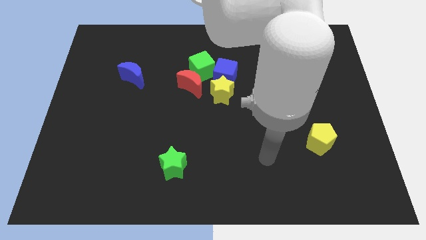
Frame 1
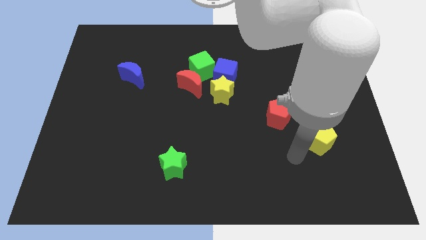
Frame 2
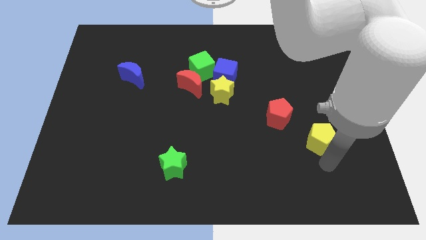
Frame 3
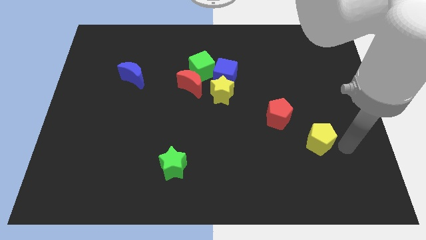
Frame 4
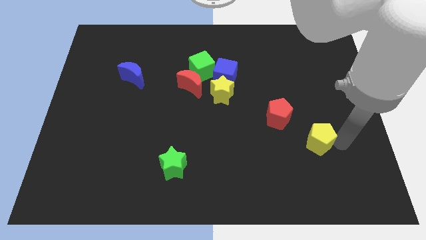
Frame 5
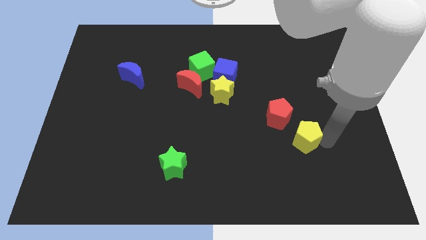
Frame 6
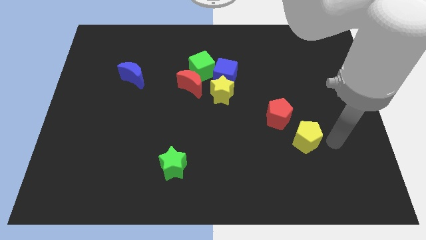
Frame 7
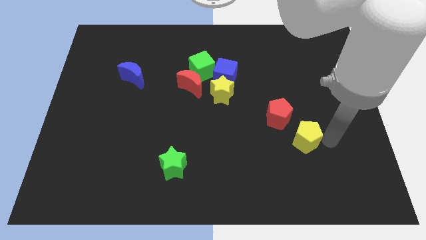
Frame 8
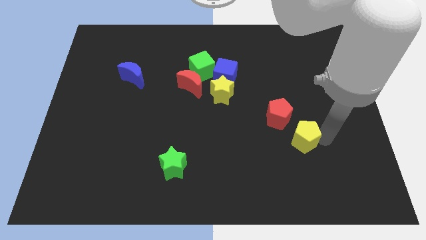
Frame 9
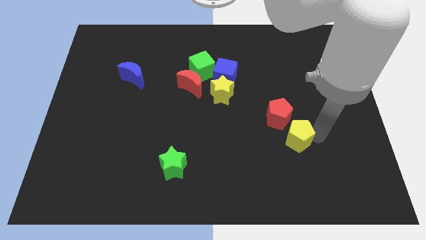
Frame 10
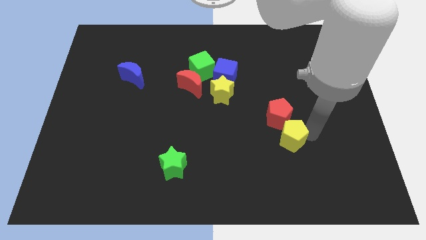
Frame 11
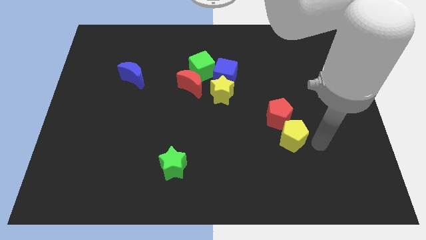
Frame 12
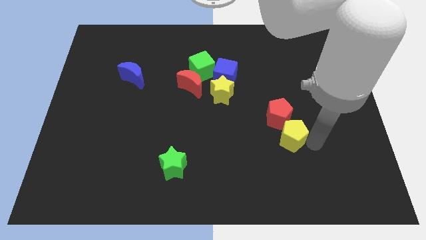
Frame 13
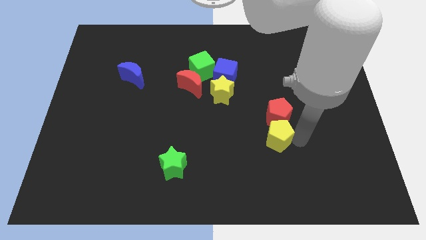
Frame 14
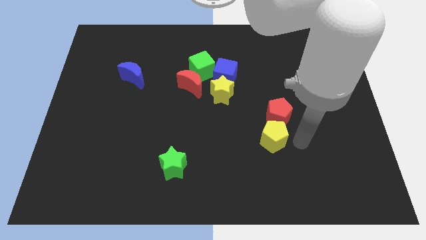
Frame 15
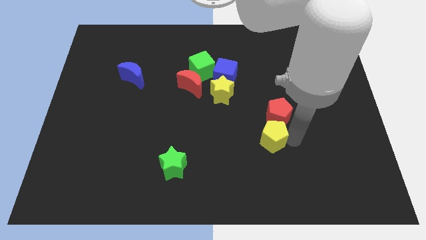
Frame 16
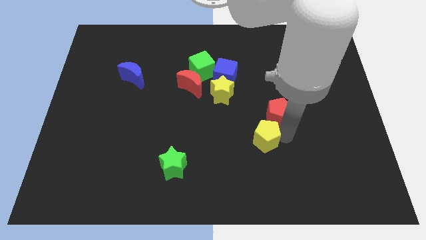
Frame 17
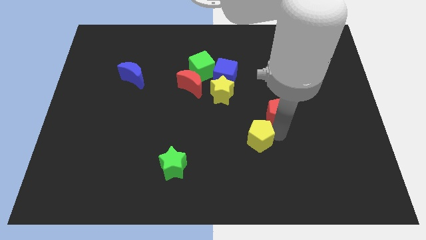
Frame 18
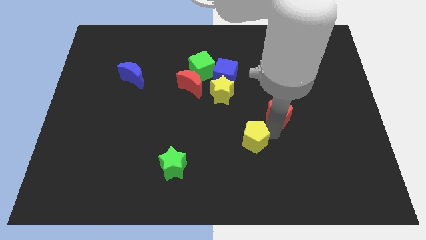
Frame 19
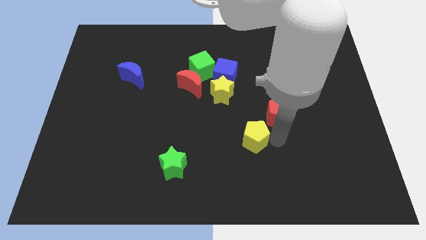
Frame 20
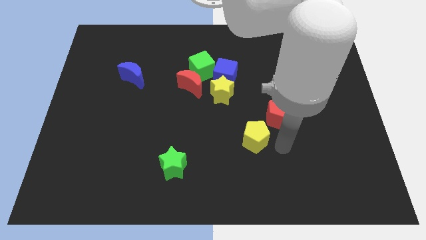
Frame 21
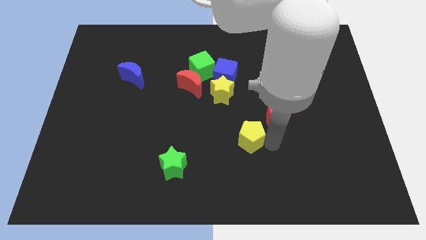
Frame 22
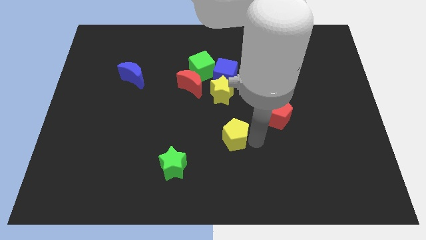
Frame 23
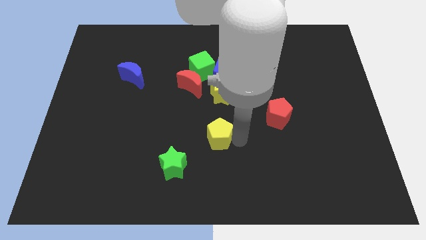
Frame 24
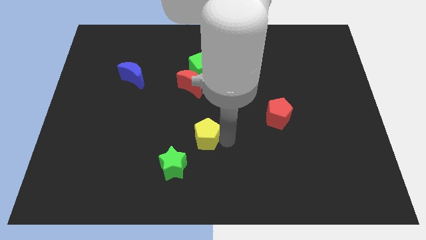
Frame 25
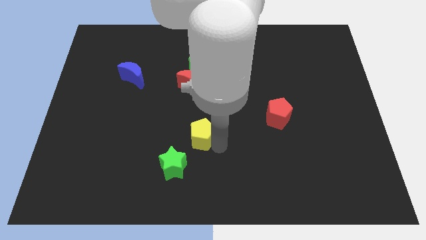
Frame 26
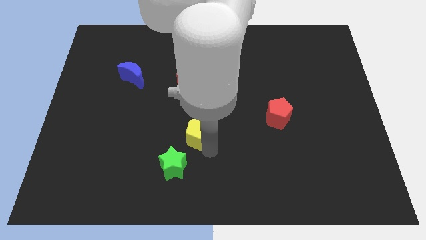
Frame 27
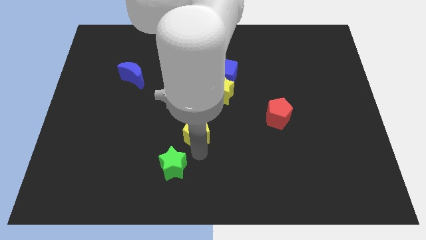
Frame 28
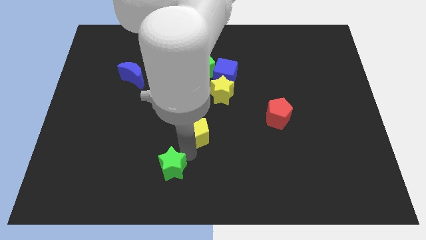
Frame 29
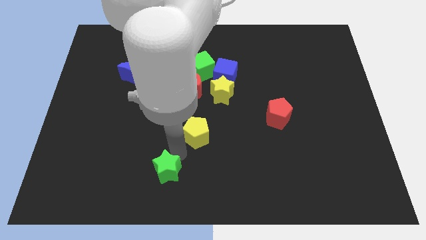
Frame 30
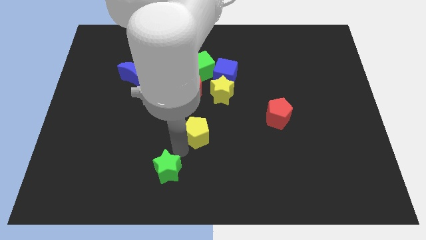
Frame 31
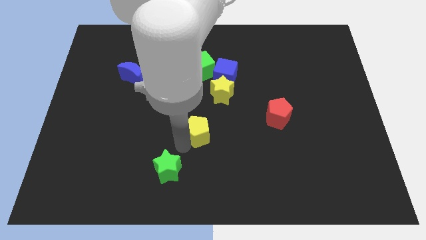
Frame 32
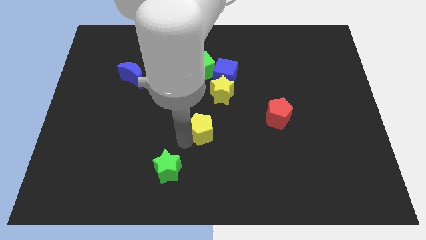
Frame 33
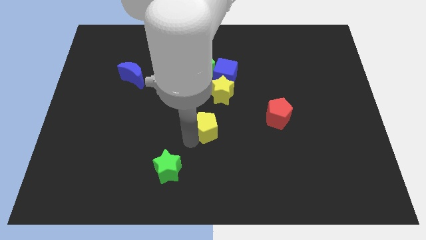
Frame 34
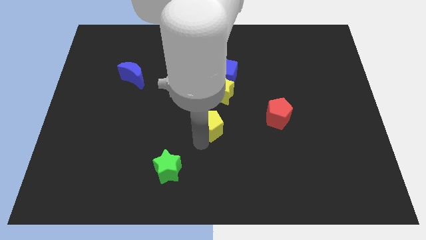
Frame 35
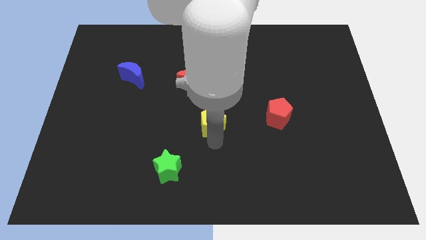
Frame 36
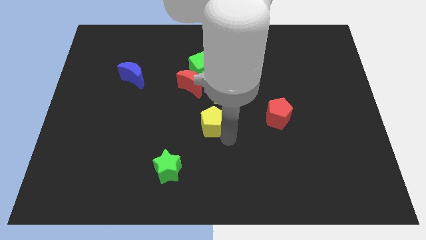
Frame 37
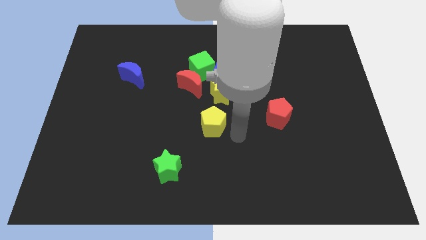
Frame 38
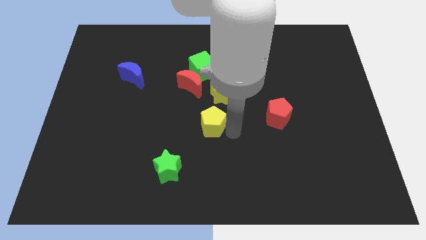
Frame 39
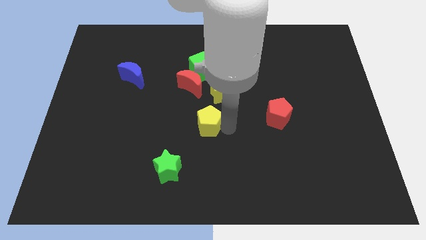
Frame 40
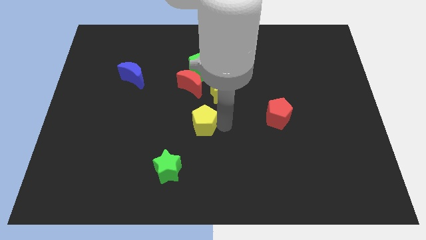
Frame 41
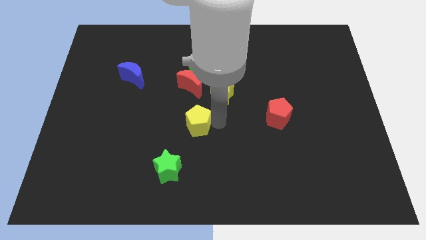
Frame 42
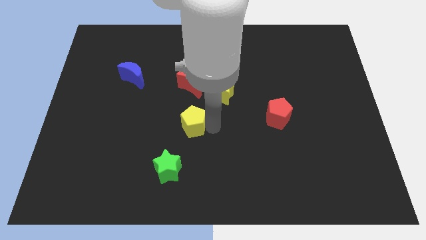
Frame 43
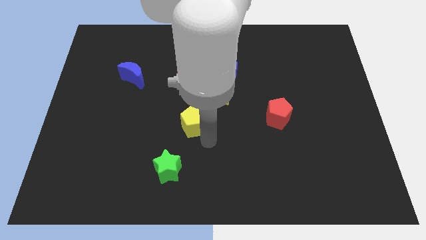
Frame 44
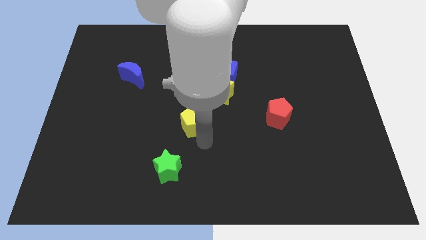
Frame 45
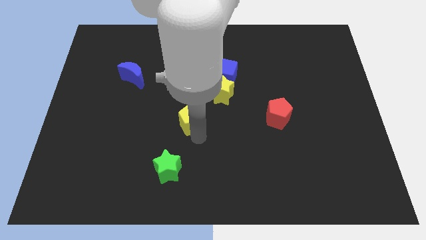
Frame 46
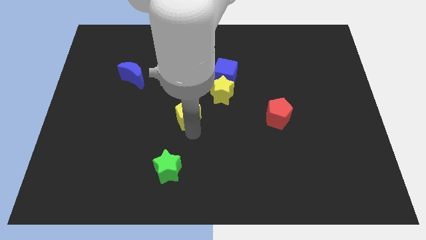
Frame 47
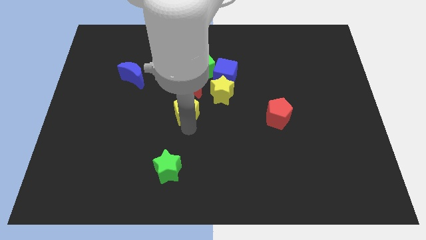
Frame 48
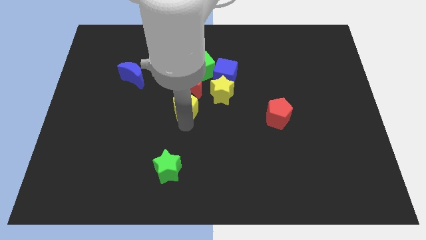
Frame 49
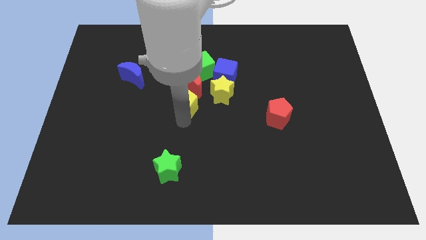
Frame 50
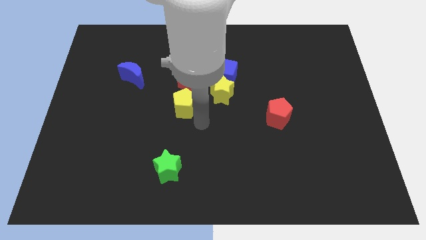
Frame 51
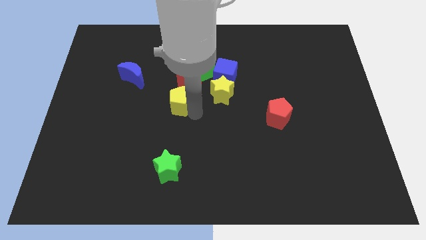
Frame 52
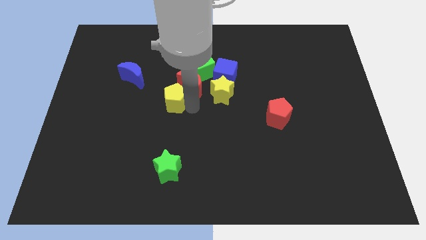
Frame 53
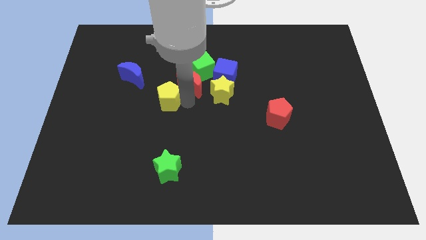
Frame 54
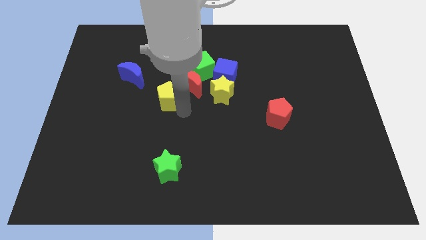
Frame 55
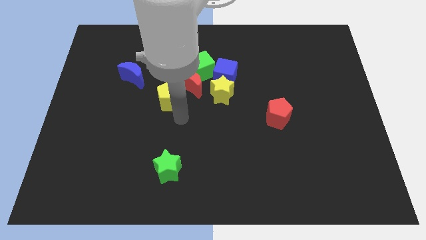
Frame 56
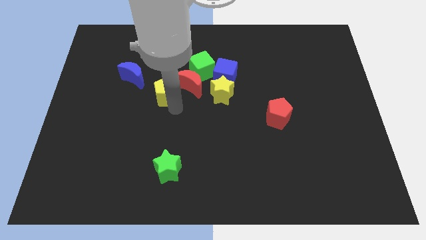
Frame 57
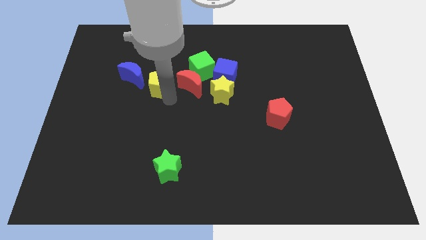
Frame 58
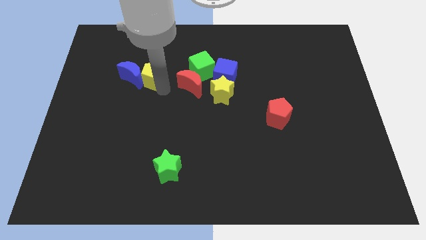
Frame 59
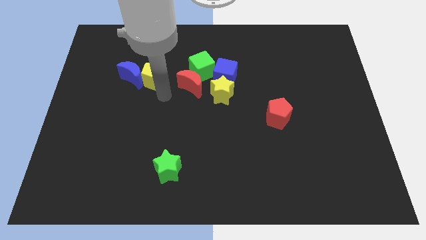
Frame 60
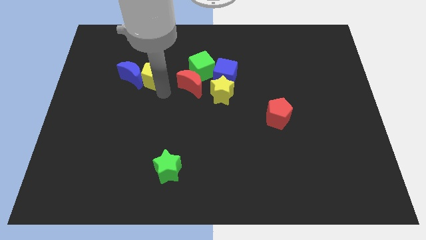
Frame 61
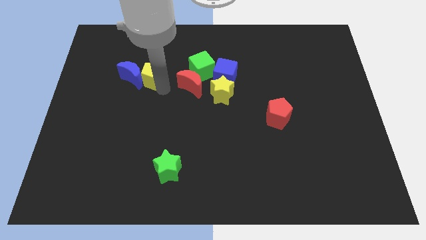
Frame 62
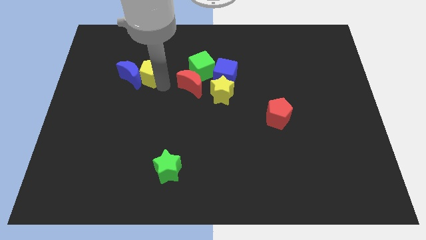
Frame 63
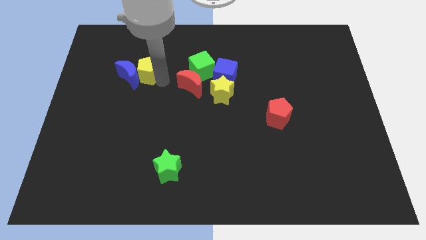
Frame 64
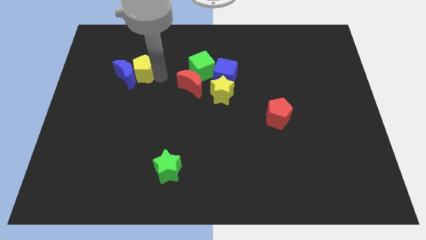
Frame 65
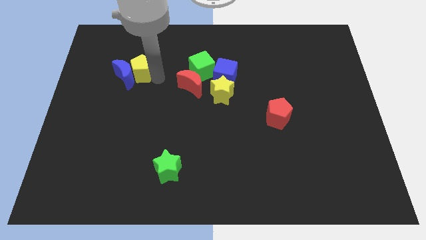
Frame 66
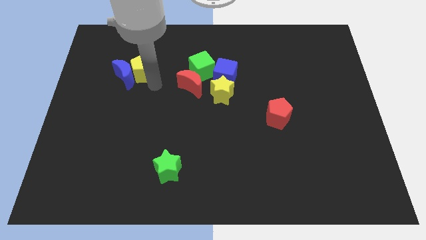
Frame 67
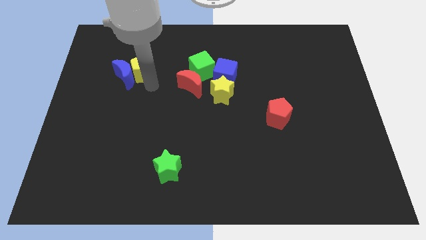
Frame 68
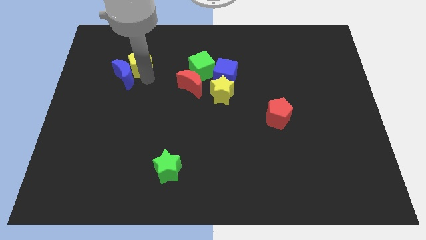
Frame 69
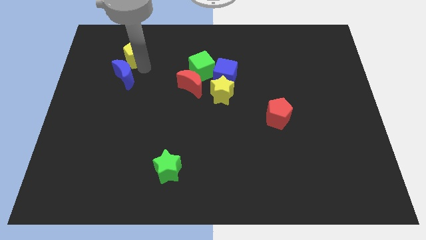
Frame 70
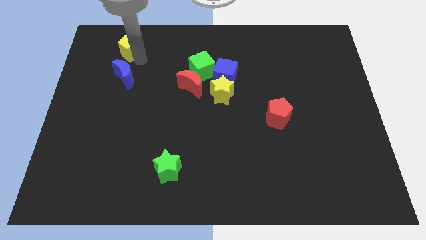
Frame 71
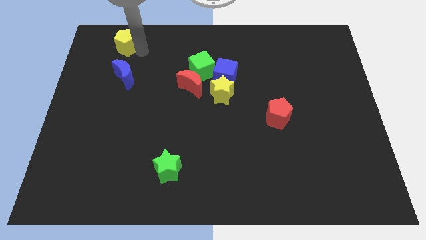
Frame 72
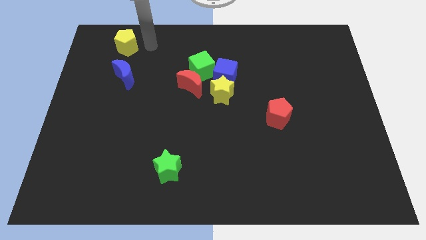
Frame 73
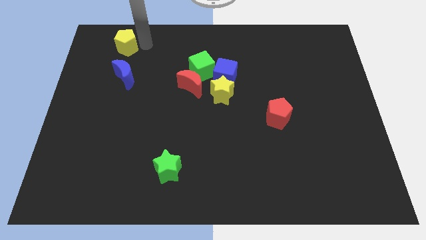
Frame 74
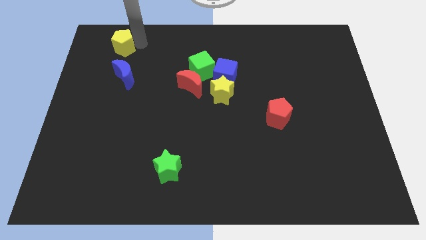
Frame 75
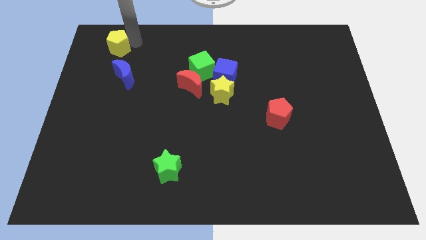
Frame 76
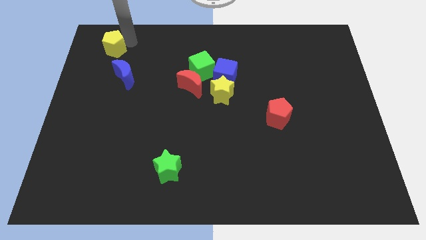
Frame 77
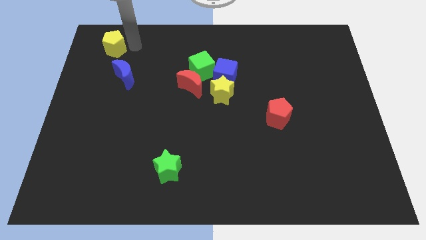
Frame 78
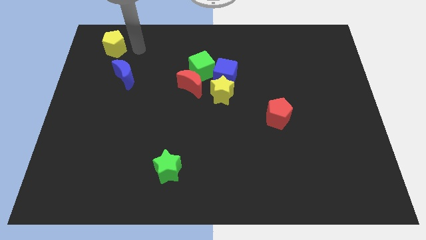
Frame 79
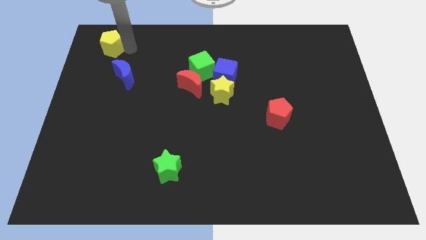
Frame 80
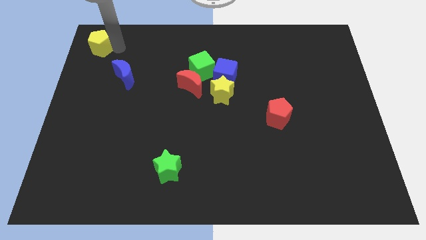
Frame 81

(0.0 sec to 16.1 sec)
move the yellow pentagon to the upper left corner
